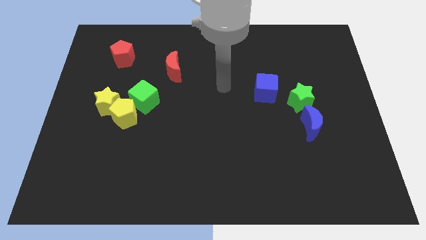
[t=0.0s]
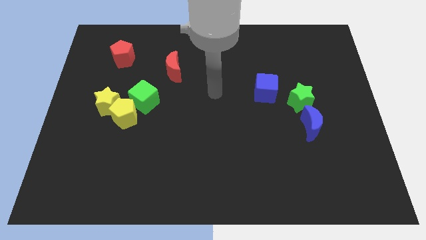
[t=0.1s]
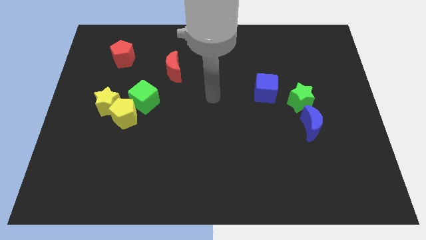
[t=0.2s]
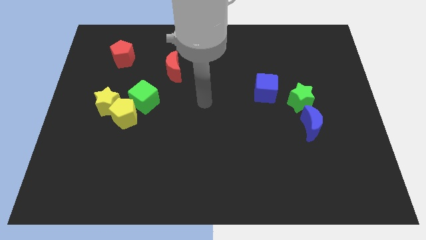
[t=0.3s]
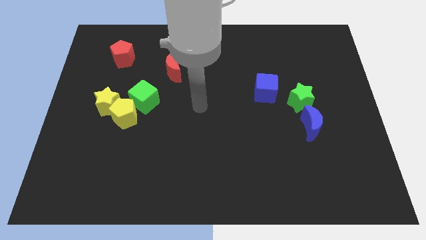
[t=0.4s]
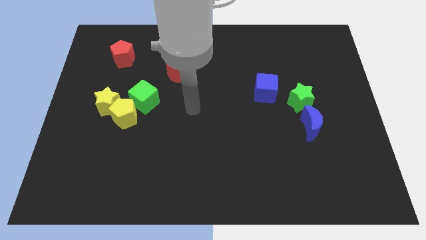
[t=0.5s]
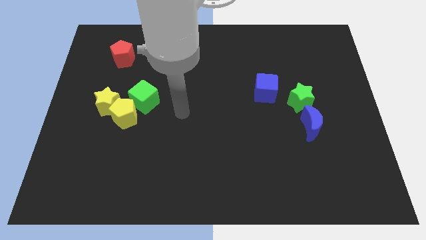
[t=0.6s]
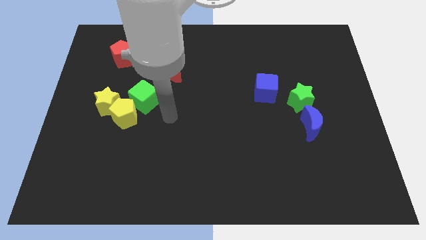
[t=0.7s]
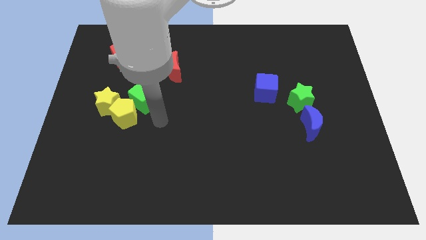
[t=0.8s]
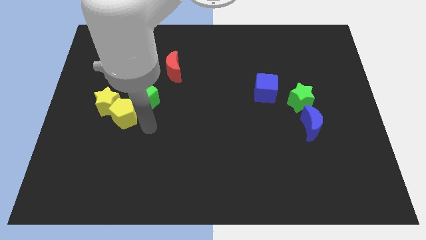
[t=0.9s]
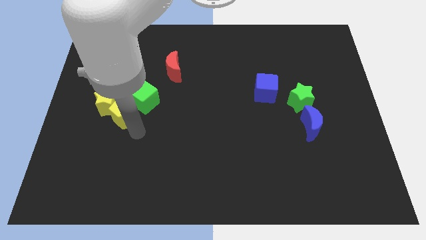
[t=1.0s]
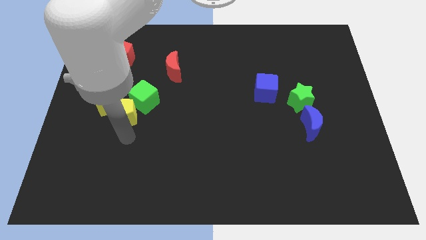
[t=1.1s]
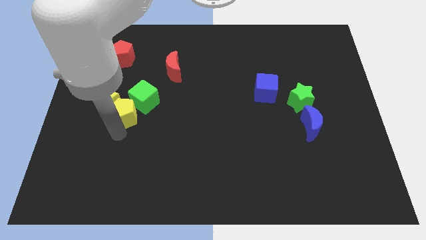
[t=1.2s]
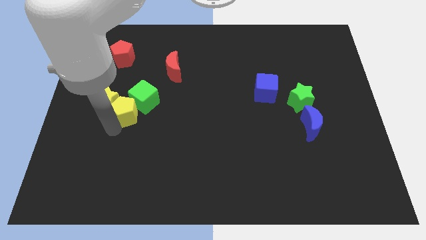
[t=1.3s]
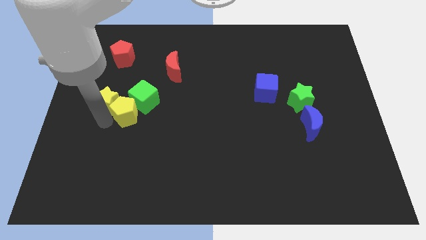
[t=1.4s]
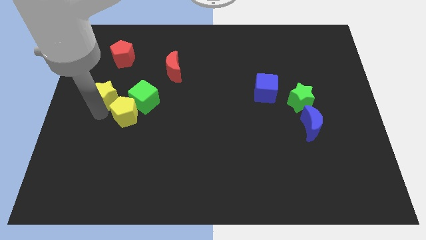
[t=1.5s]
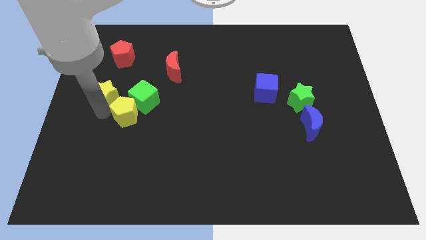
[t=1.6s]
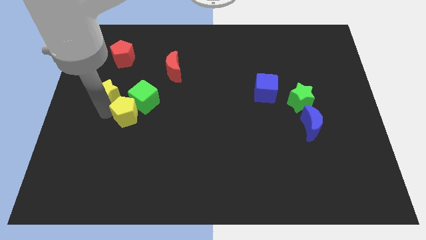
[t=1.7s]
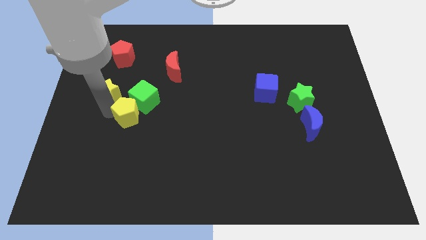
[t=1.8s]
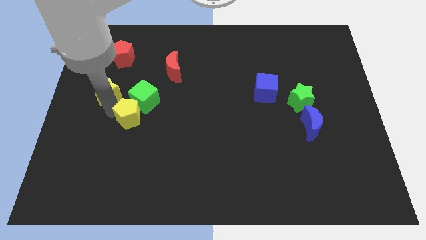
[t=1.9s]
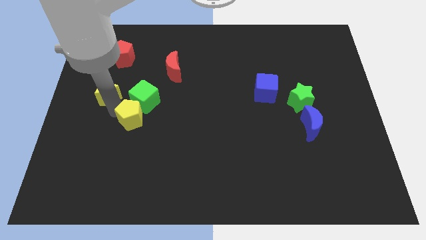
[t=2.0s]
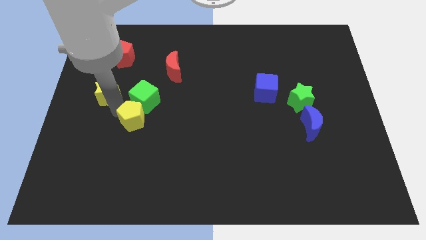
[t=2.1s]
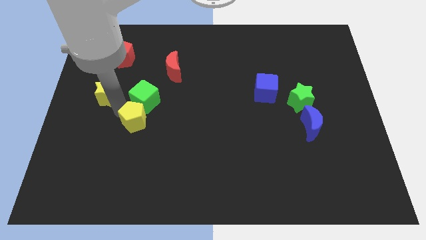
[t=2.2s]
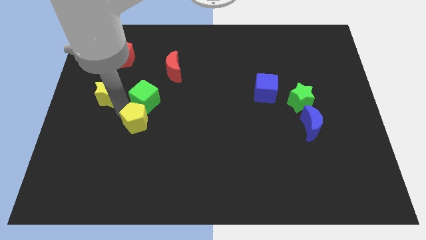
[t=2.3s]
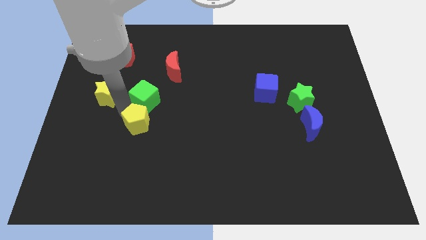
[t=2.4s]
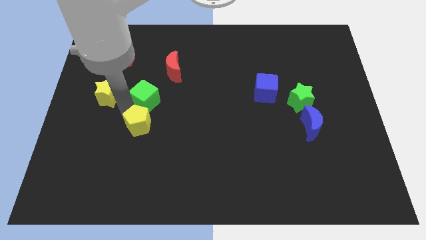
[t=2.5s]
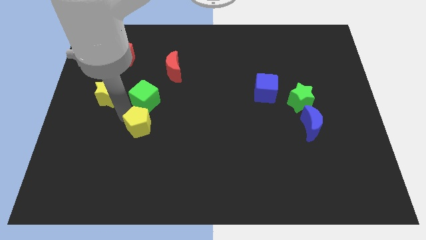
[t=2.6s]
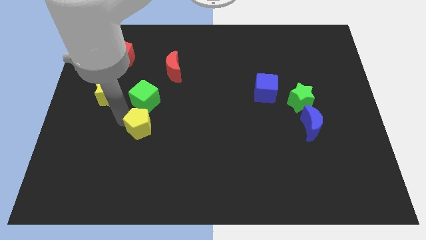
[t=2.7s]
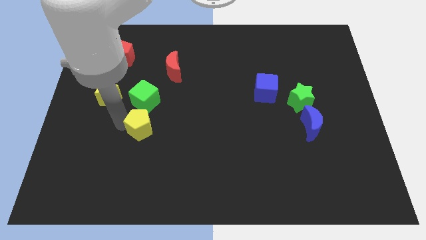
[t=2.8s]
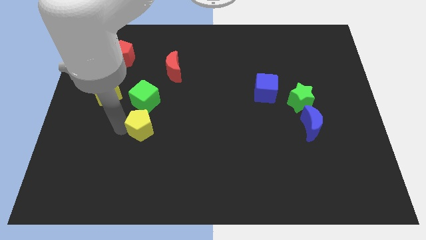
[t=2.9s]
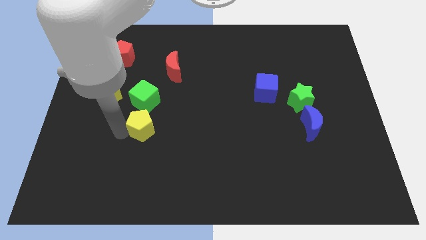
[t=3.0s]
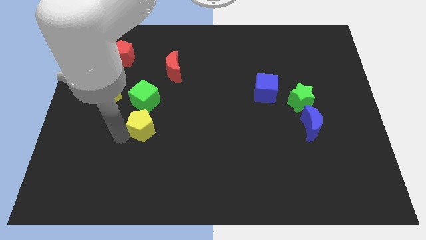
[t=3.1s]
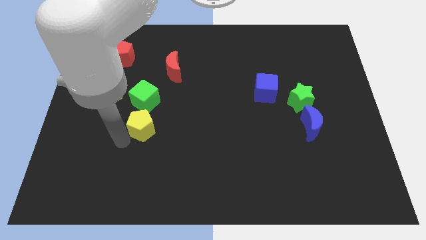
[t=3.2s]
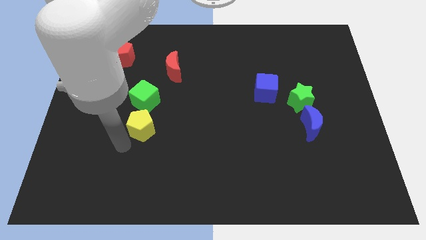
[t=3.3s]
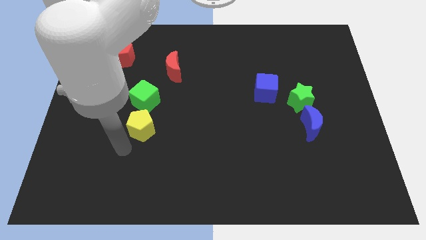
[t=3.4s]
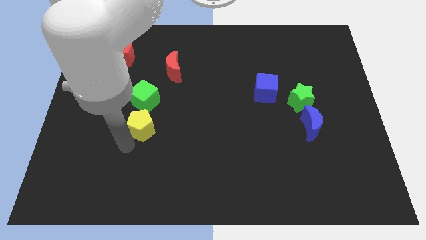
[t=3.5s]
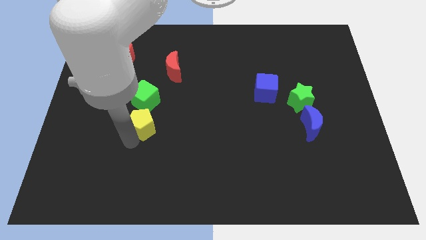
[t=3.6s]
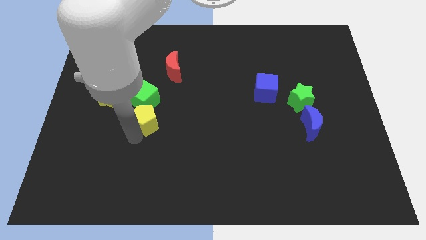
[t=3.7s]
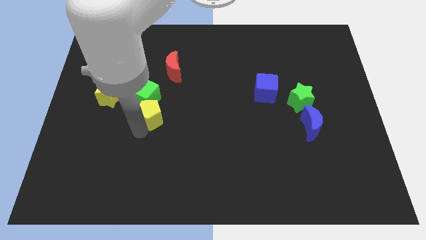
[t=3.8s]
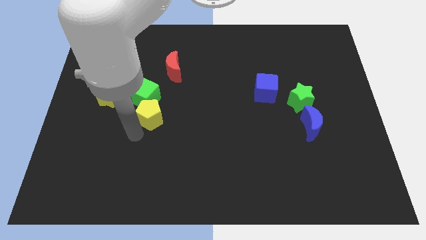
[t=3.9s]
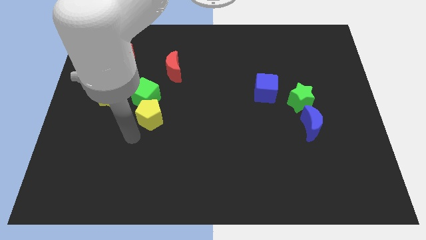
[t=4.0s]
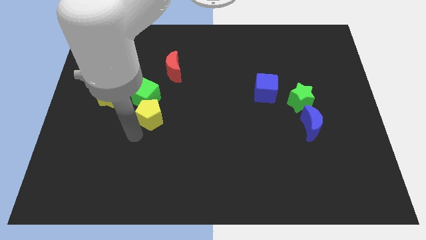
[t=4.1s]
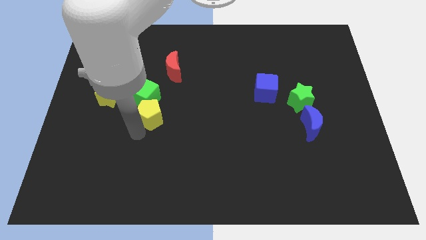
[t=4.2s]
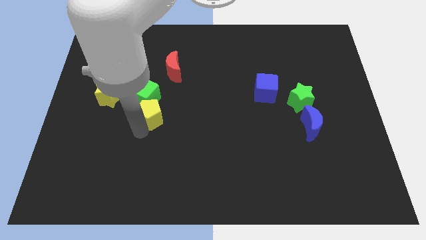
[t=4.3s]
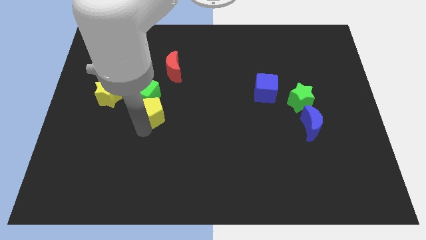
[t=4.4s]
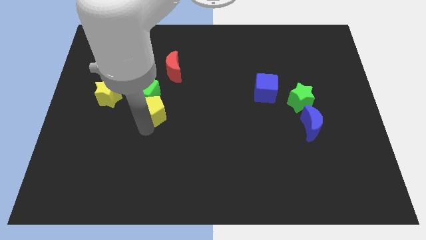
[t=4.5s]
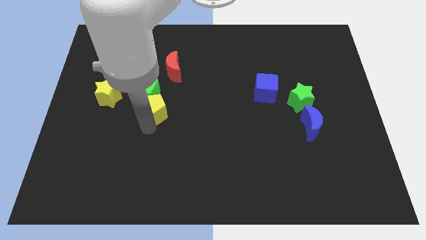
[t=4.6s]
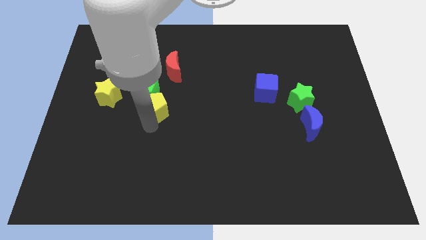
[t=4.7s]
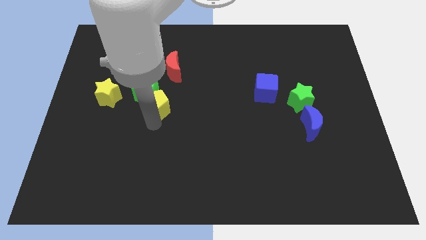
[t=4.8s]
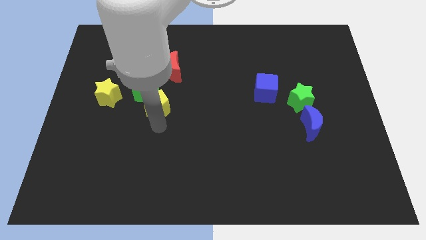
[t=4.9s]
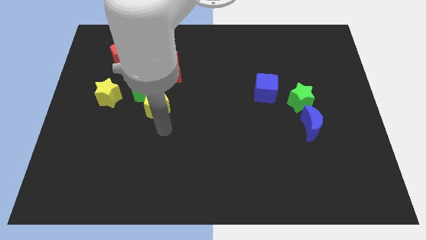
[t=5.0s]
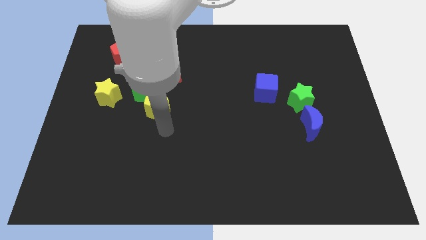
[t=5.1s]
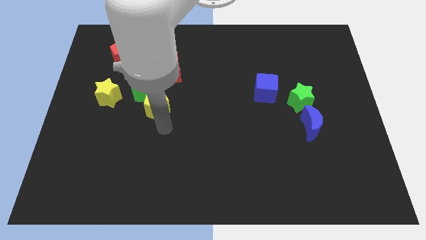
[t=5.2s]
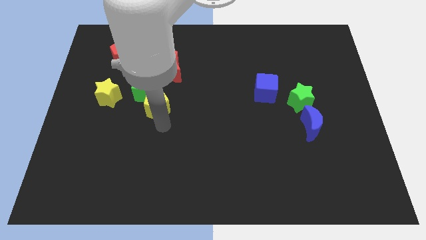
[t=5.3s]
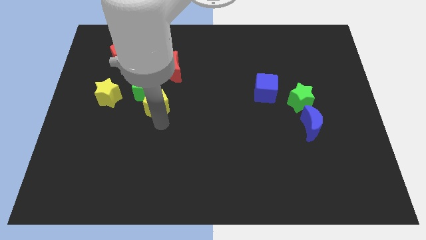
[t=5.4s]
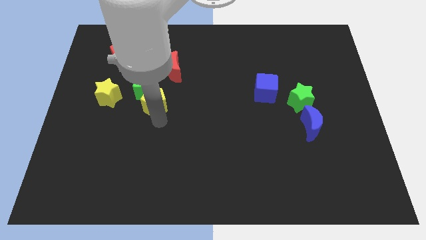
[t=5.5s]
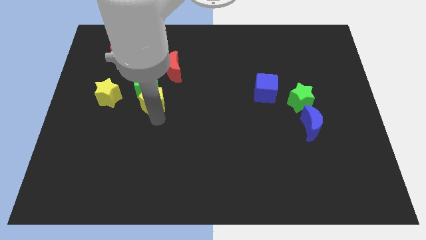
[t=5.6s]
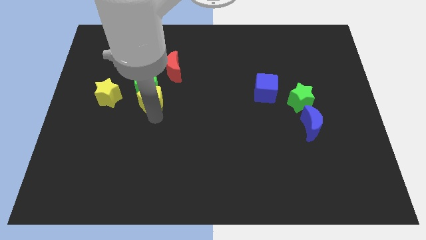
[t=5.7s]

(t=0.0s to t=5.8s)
put the yellow pentagon to the bottom left of the red moon

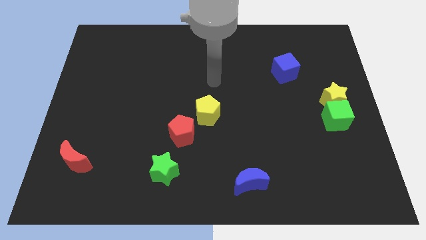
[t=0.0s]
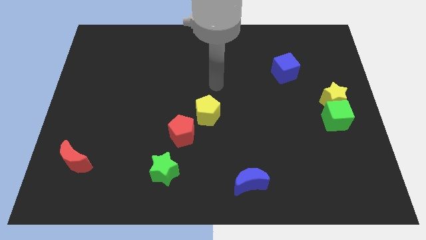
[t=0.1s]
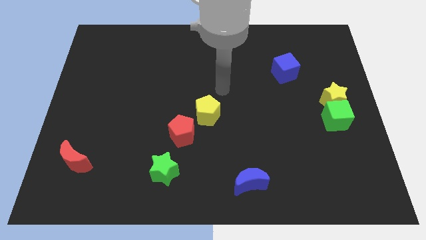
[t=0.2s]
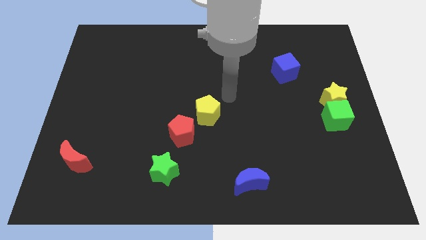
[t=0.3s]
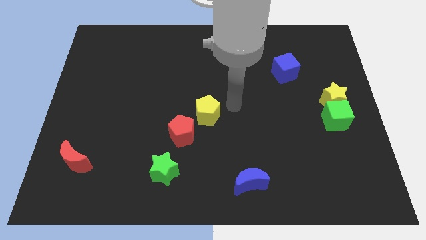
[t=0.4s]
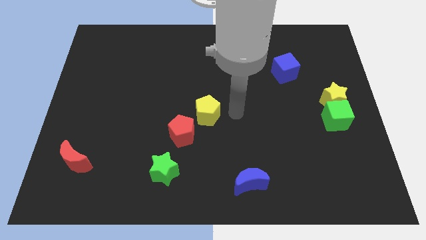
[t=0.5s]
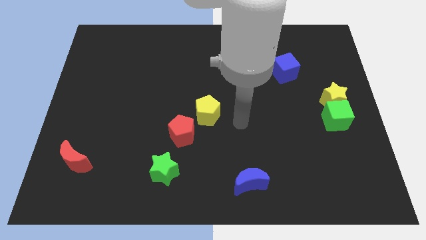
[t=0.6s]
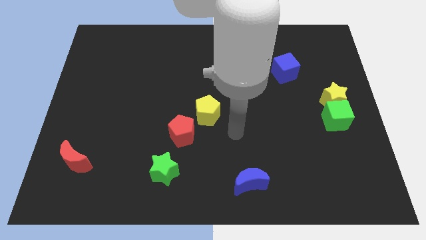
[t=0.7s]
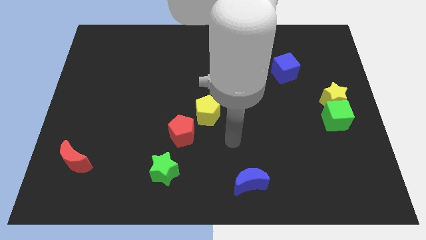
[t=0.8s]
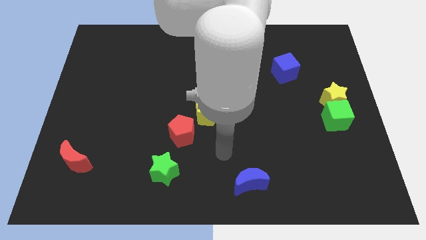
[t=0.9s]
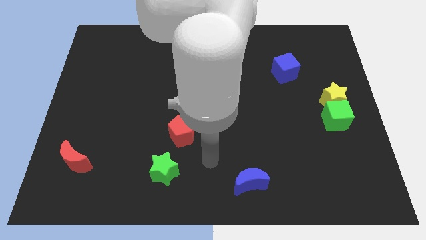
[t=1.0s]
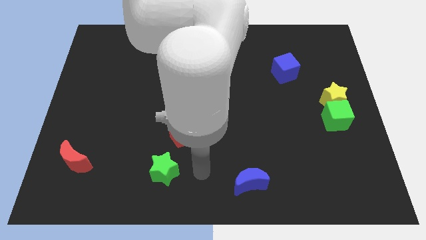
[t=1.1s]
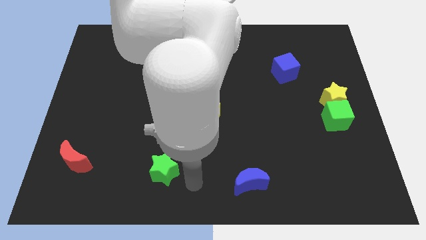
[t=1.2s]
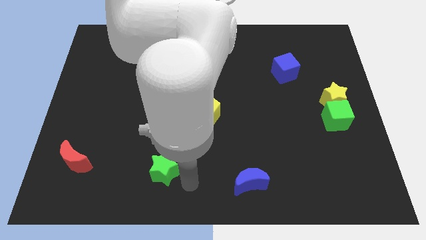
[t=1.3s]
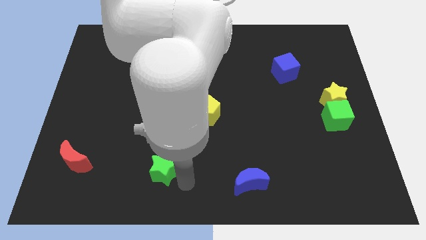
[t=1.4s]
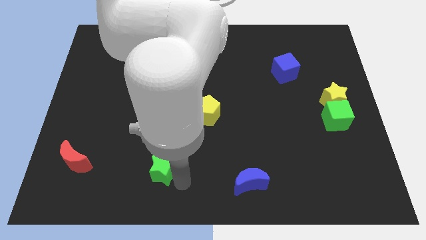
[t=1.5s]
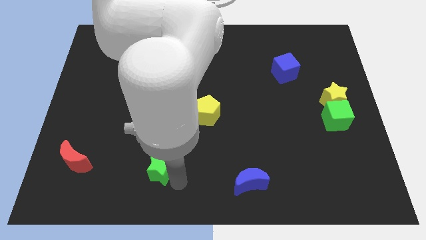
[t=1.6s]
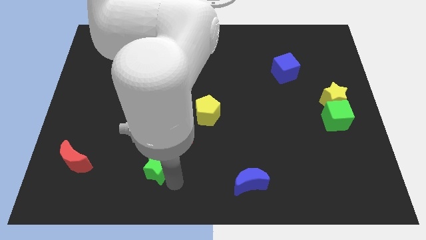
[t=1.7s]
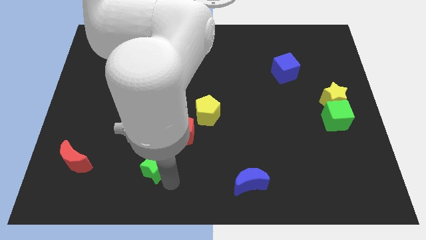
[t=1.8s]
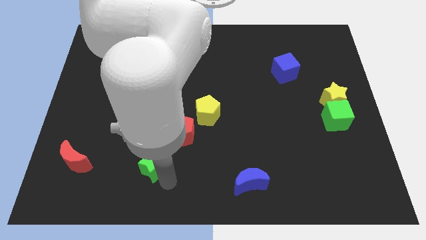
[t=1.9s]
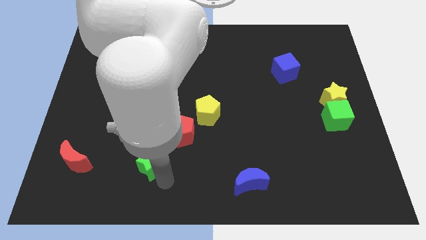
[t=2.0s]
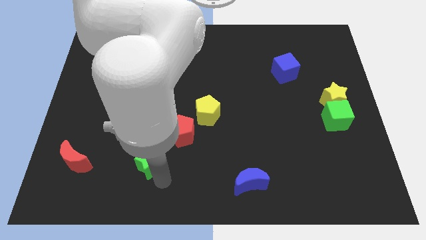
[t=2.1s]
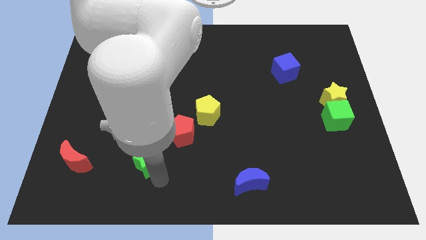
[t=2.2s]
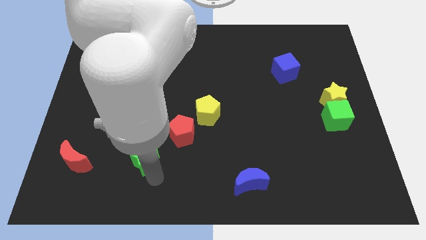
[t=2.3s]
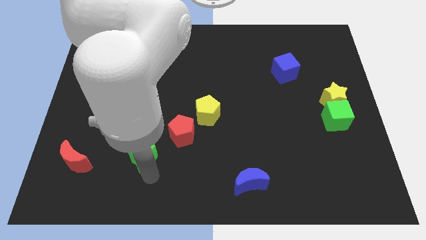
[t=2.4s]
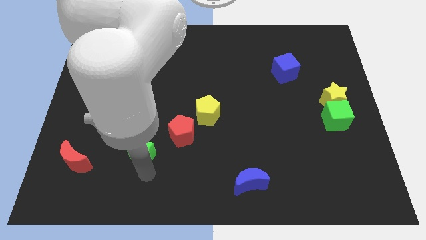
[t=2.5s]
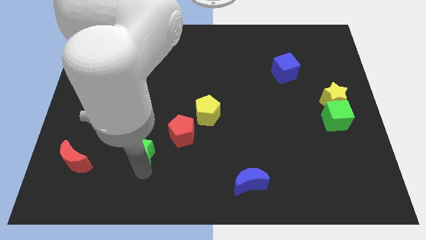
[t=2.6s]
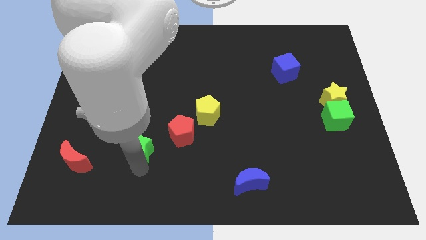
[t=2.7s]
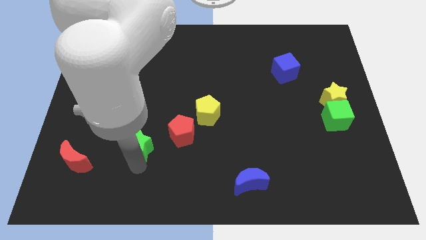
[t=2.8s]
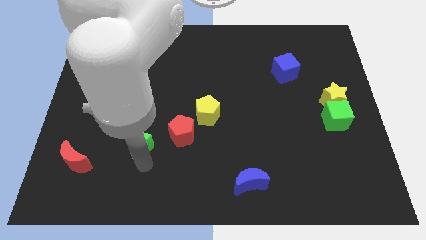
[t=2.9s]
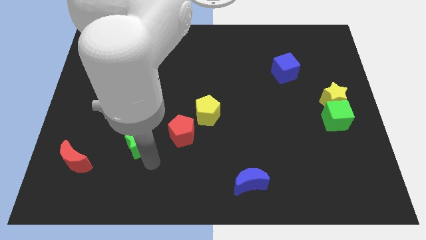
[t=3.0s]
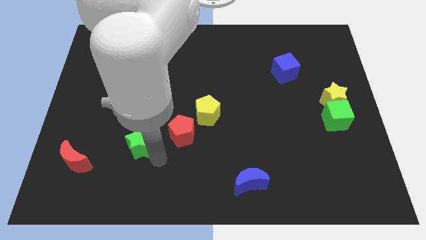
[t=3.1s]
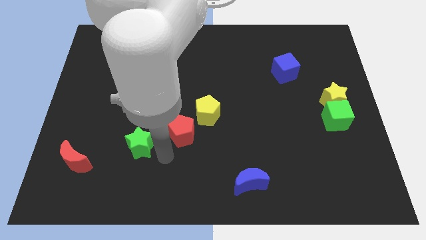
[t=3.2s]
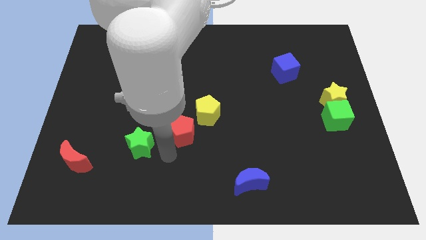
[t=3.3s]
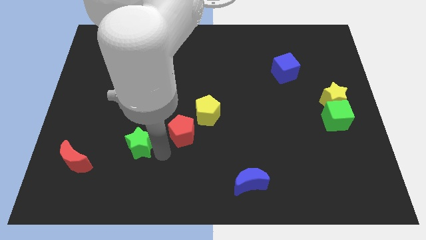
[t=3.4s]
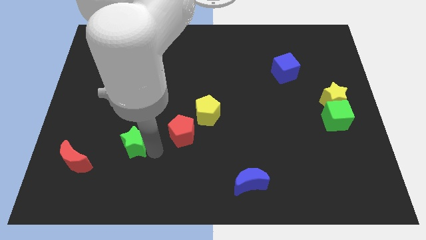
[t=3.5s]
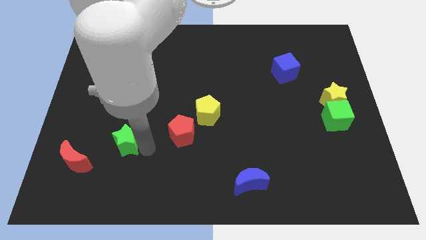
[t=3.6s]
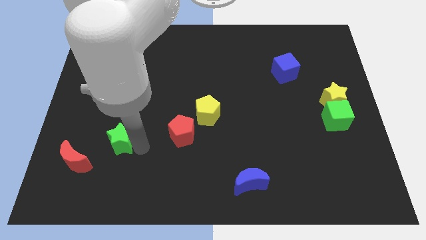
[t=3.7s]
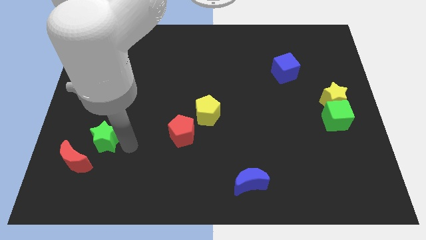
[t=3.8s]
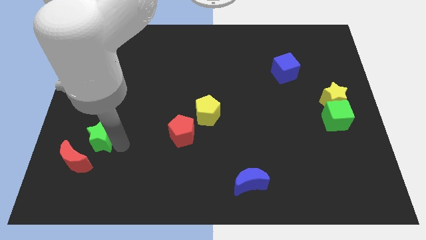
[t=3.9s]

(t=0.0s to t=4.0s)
put the green star above the red moon
